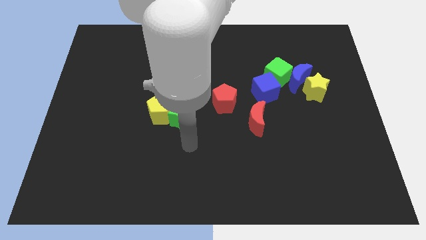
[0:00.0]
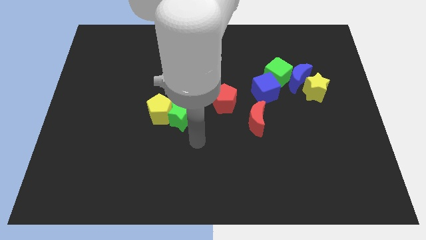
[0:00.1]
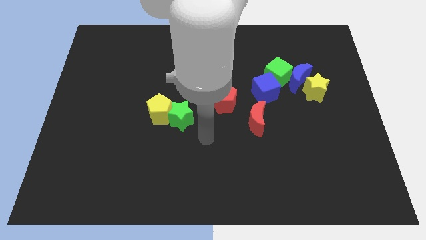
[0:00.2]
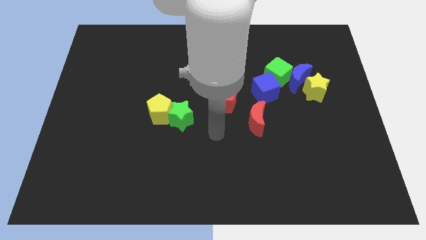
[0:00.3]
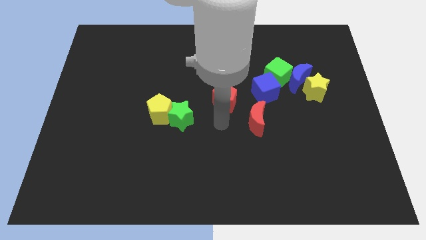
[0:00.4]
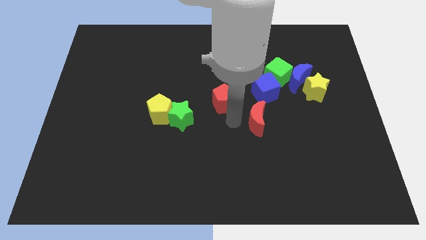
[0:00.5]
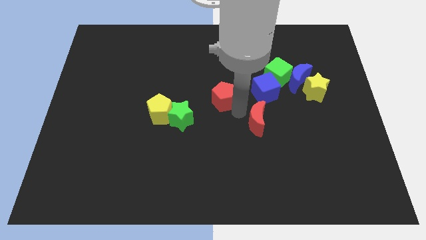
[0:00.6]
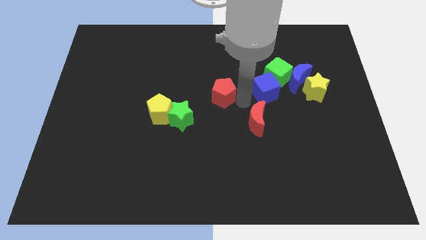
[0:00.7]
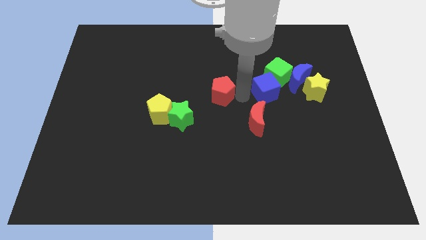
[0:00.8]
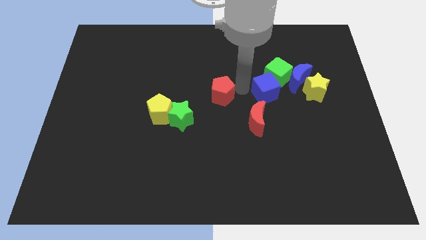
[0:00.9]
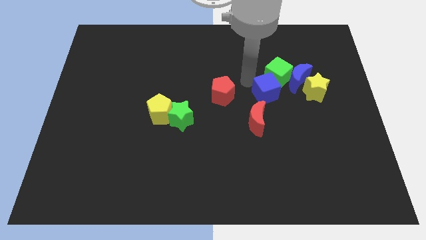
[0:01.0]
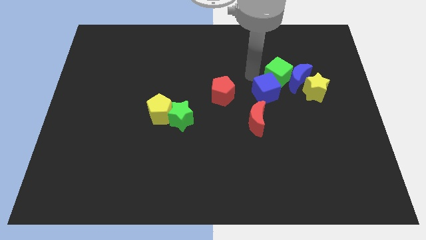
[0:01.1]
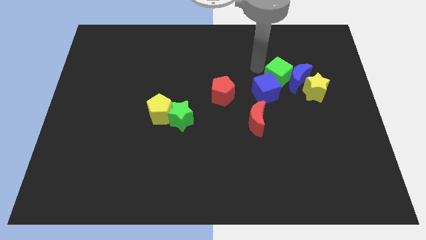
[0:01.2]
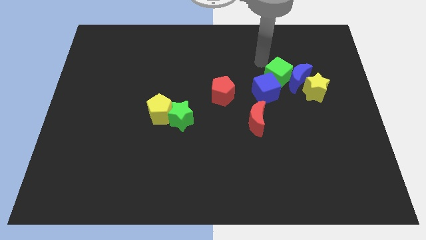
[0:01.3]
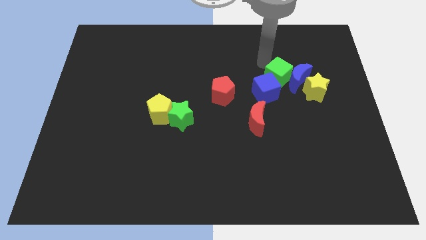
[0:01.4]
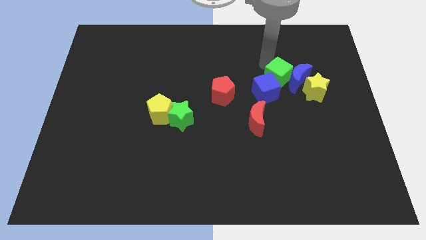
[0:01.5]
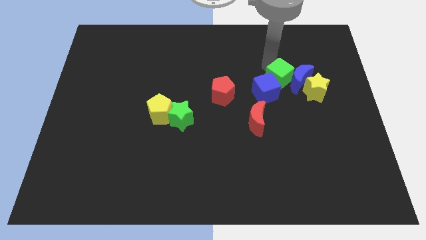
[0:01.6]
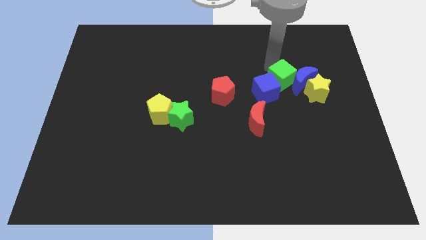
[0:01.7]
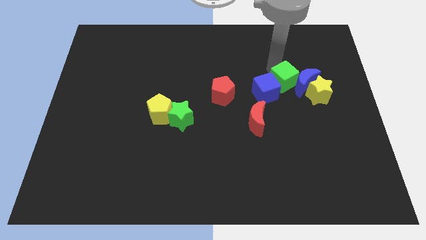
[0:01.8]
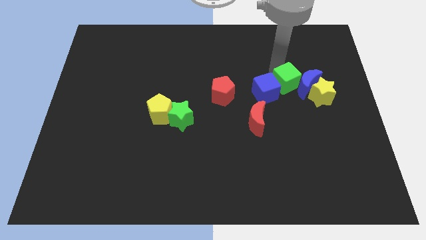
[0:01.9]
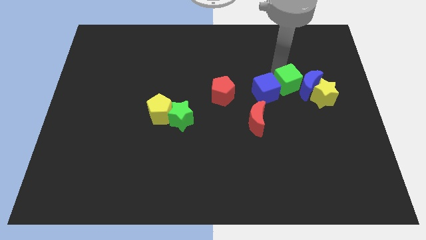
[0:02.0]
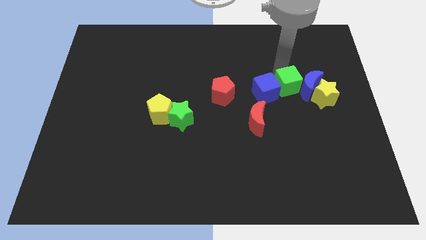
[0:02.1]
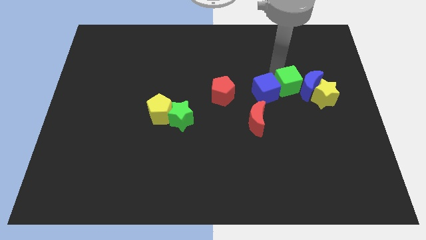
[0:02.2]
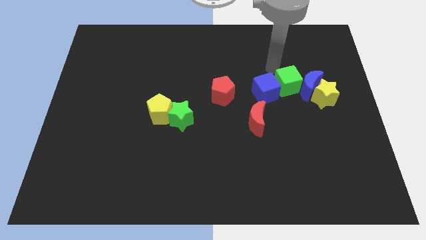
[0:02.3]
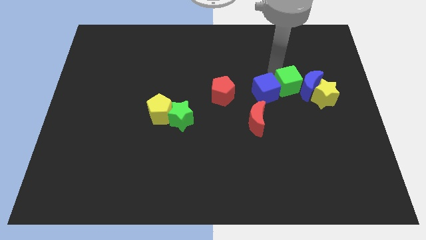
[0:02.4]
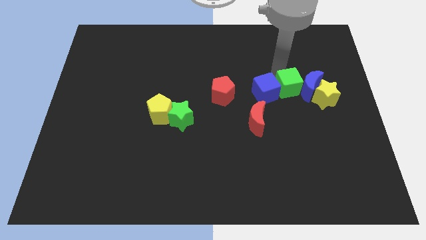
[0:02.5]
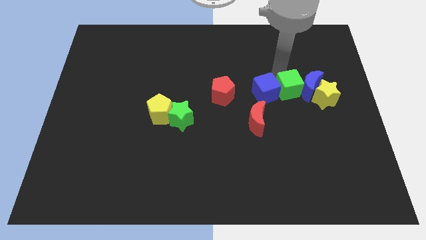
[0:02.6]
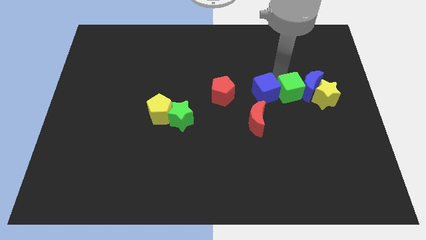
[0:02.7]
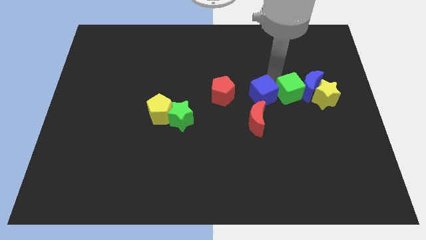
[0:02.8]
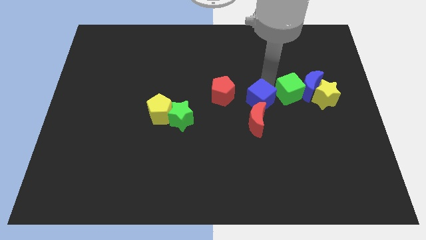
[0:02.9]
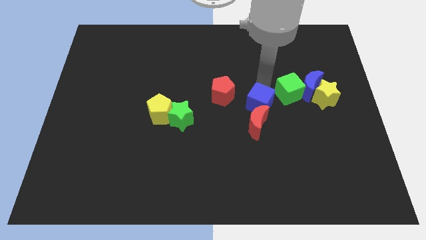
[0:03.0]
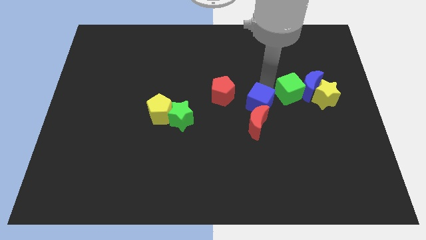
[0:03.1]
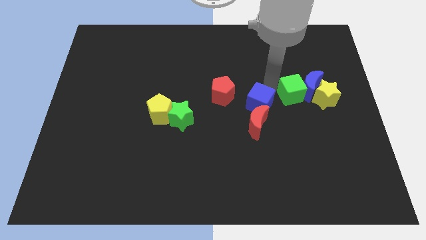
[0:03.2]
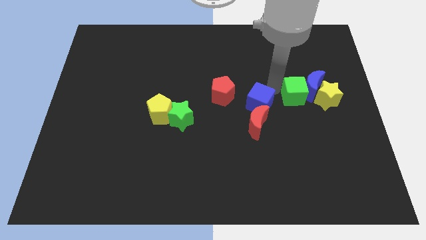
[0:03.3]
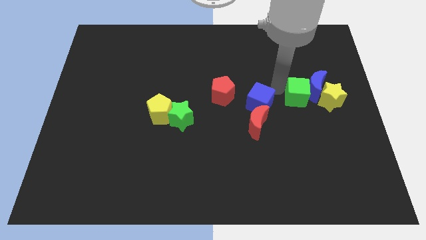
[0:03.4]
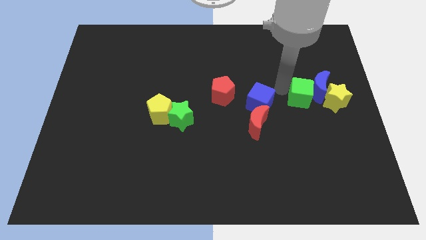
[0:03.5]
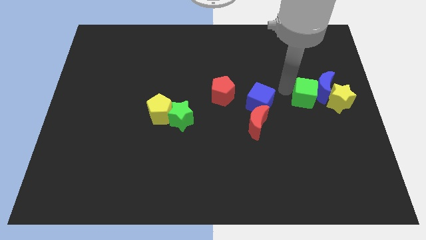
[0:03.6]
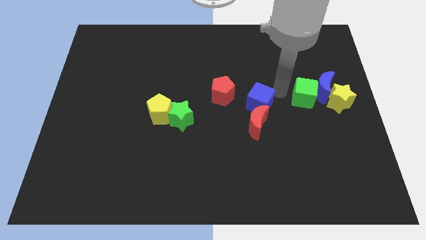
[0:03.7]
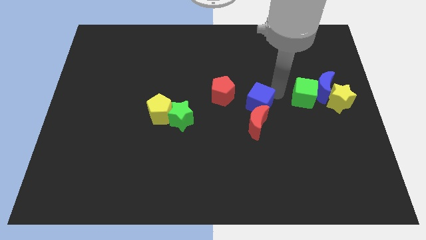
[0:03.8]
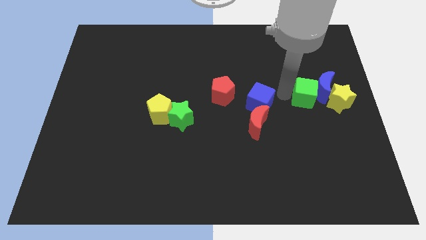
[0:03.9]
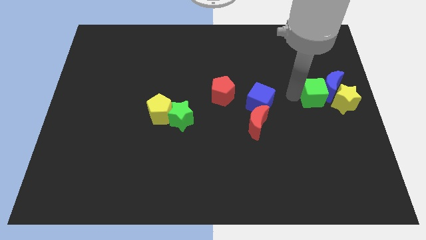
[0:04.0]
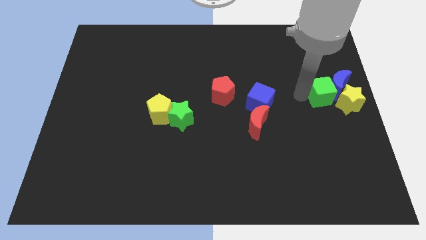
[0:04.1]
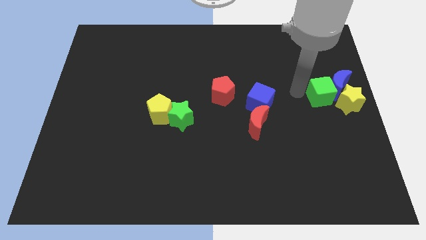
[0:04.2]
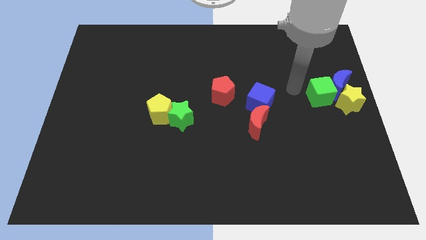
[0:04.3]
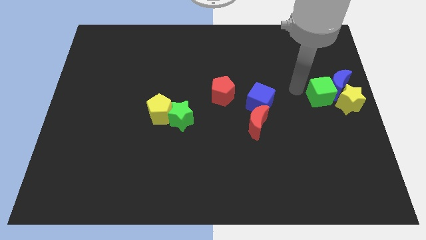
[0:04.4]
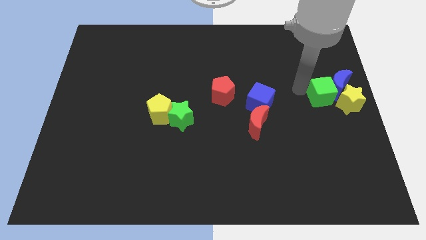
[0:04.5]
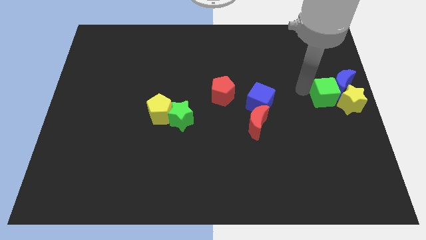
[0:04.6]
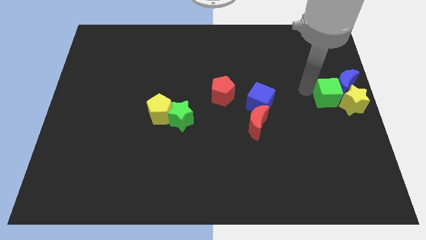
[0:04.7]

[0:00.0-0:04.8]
put the green cube next to the yellow star

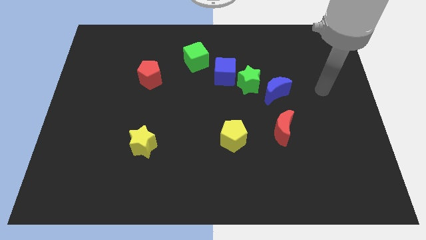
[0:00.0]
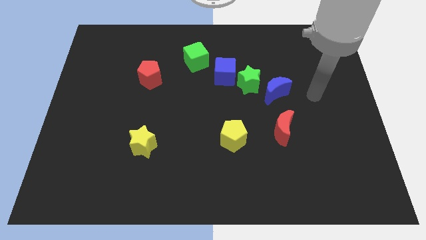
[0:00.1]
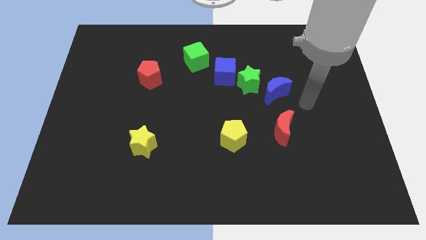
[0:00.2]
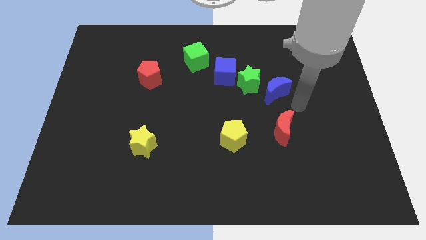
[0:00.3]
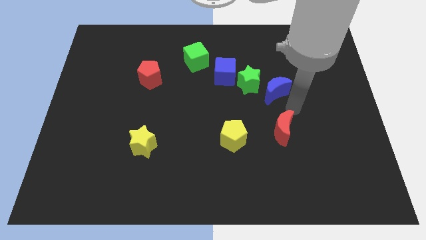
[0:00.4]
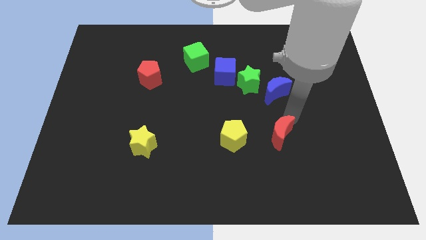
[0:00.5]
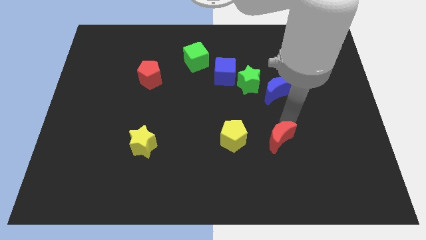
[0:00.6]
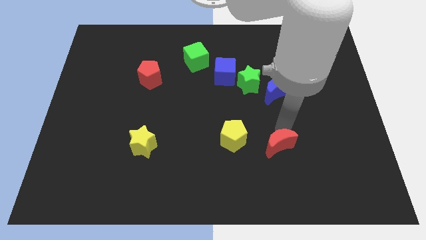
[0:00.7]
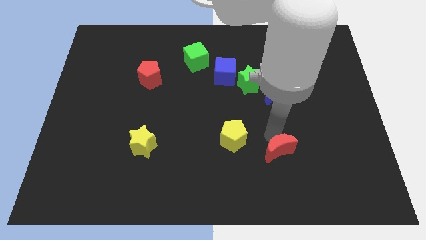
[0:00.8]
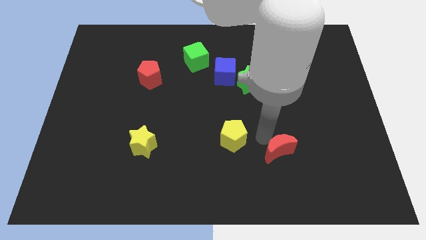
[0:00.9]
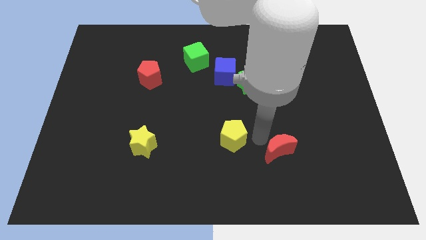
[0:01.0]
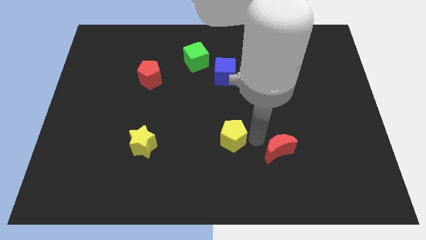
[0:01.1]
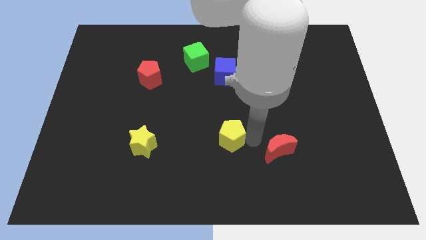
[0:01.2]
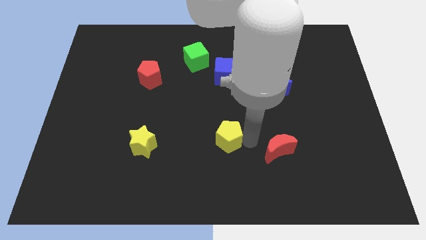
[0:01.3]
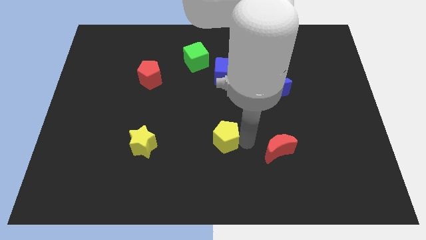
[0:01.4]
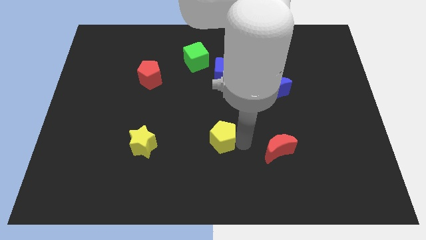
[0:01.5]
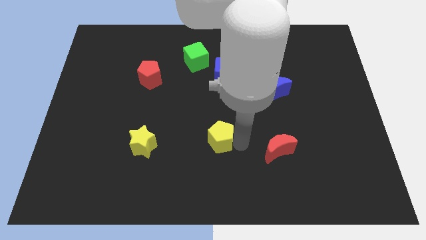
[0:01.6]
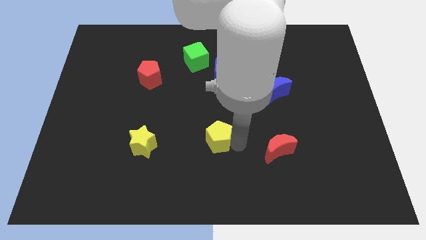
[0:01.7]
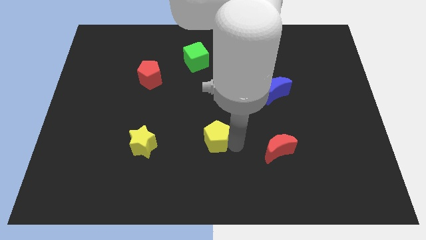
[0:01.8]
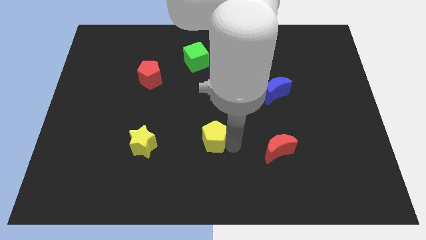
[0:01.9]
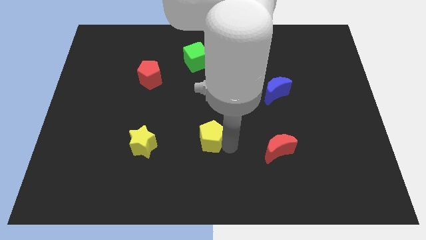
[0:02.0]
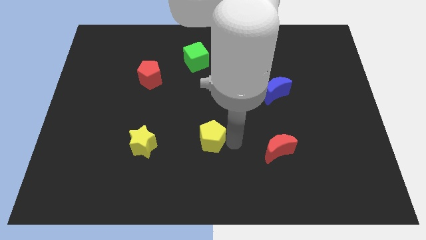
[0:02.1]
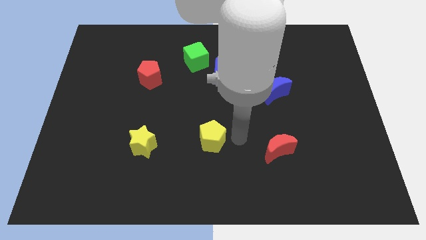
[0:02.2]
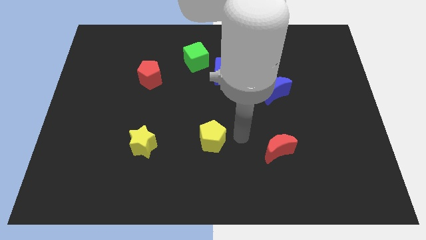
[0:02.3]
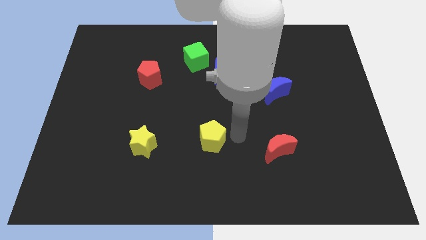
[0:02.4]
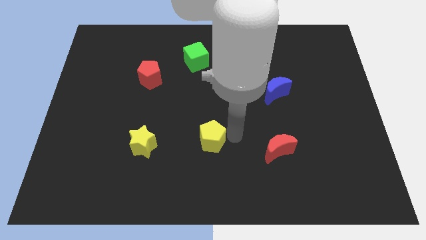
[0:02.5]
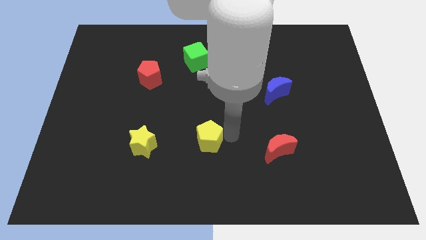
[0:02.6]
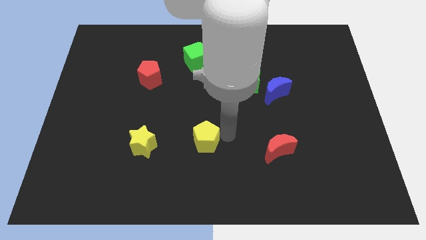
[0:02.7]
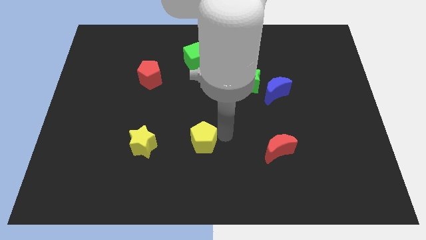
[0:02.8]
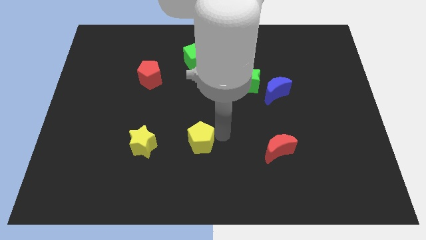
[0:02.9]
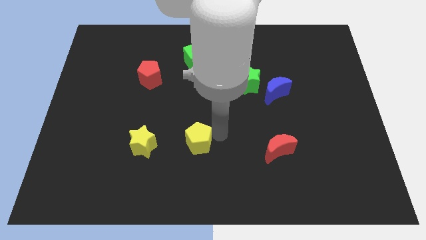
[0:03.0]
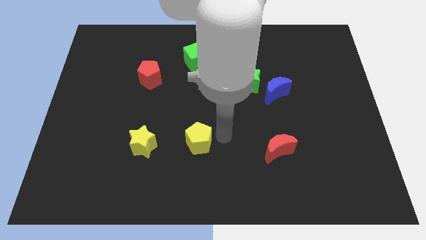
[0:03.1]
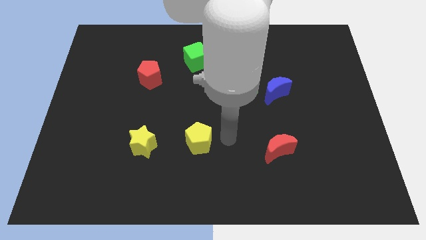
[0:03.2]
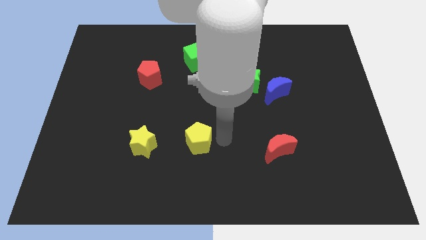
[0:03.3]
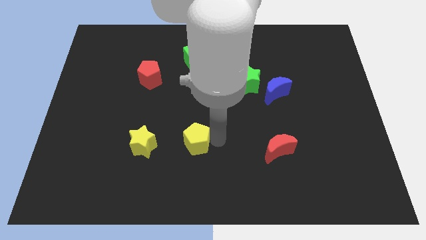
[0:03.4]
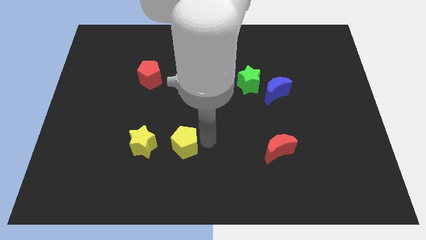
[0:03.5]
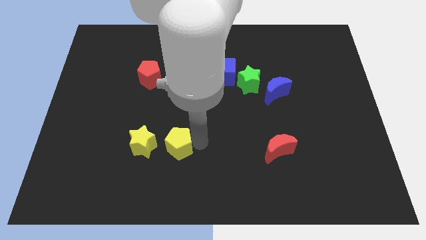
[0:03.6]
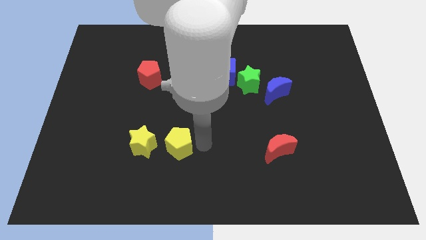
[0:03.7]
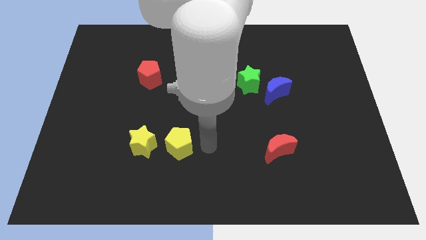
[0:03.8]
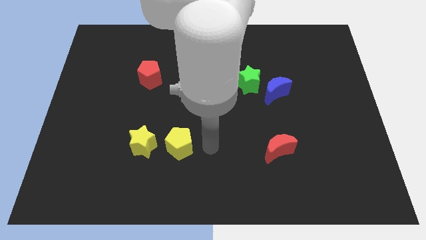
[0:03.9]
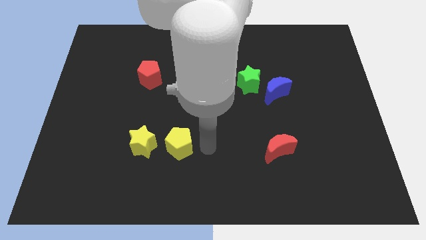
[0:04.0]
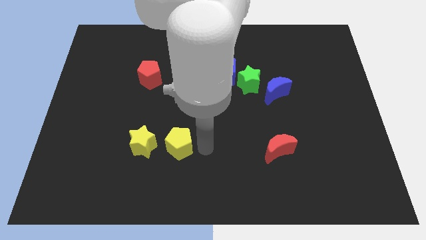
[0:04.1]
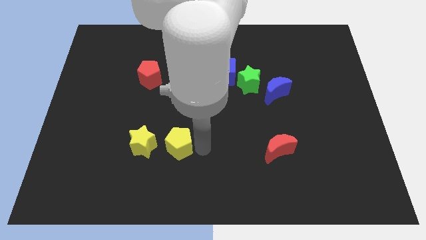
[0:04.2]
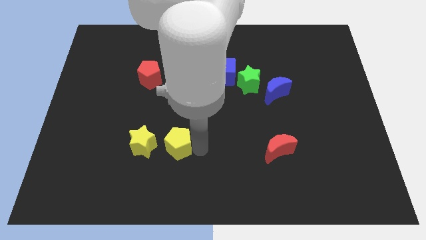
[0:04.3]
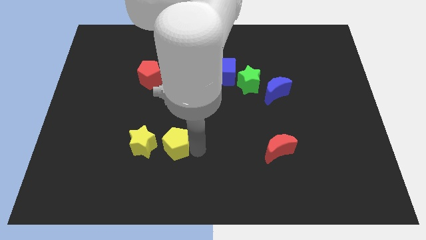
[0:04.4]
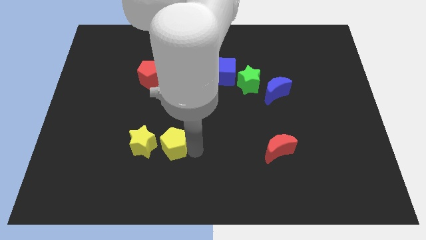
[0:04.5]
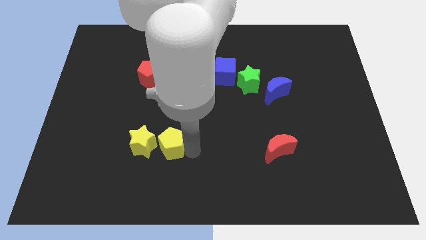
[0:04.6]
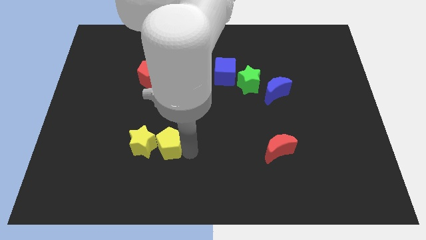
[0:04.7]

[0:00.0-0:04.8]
move the yellow pentagon towards the yellow star
